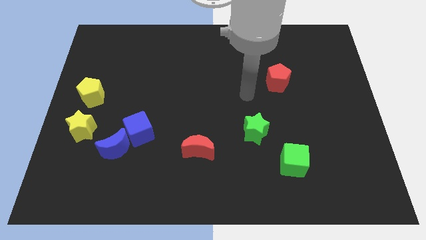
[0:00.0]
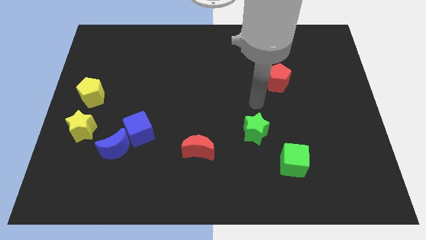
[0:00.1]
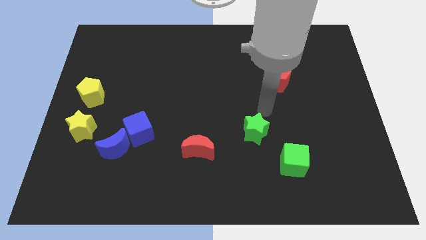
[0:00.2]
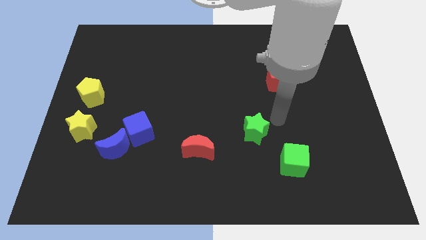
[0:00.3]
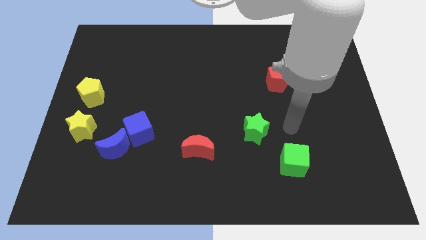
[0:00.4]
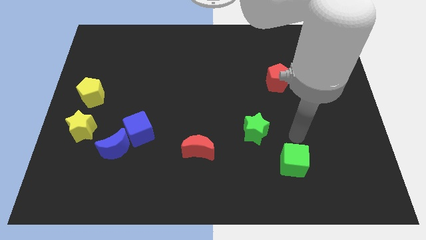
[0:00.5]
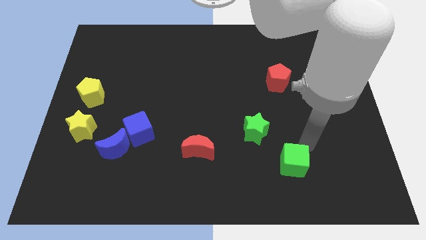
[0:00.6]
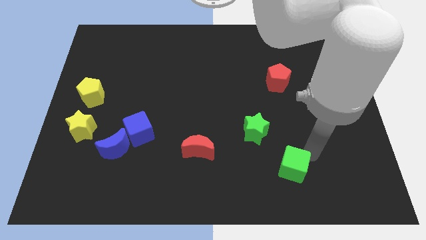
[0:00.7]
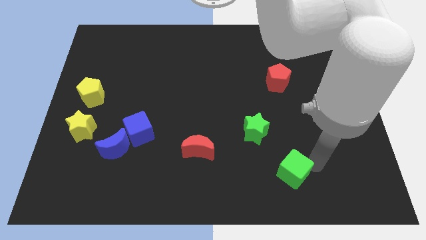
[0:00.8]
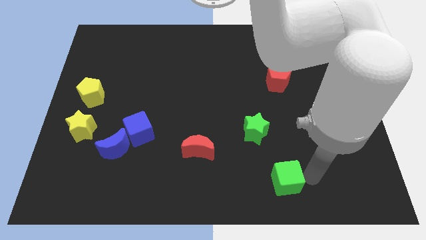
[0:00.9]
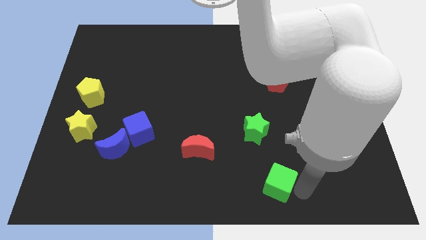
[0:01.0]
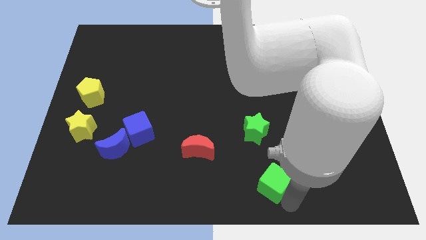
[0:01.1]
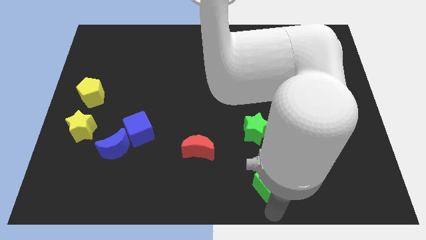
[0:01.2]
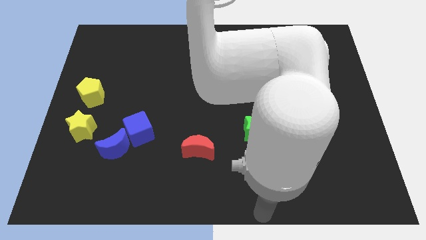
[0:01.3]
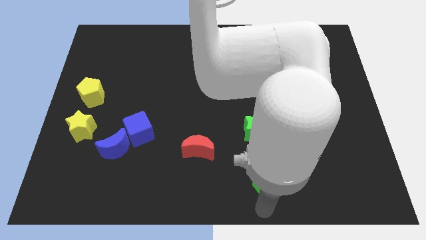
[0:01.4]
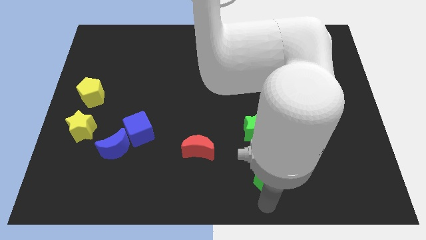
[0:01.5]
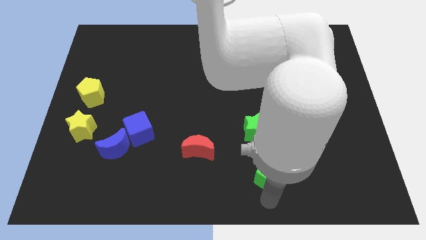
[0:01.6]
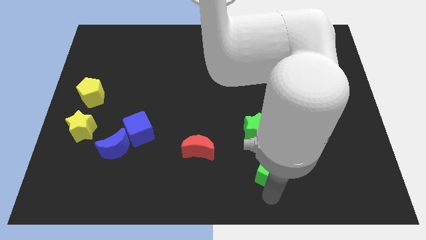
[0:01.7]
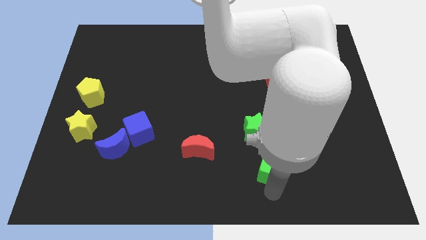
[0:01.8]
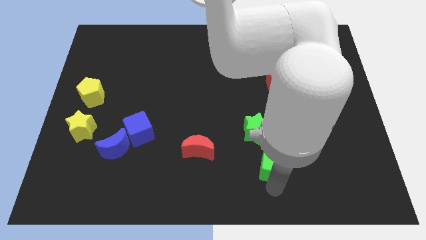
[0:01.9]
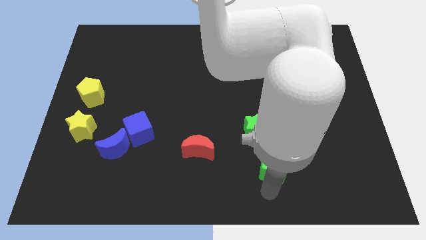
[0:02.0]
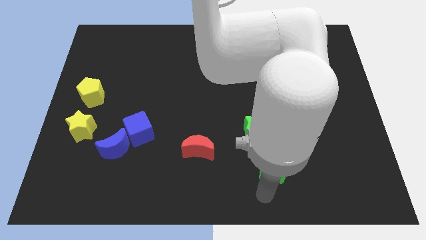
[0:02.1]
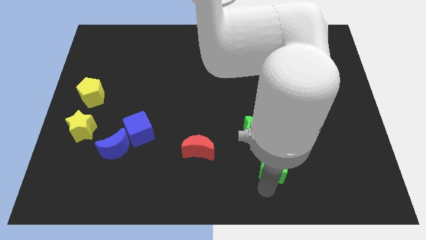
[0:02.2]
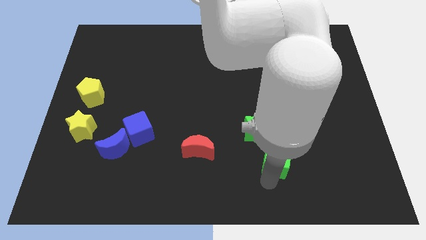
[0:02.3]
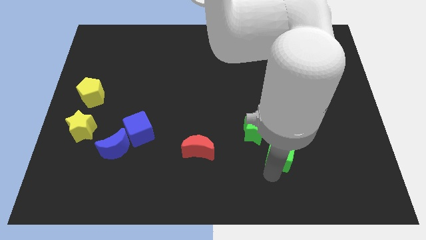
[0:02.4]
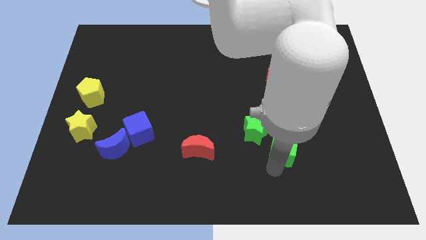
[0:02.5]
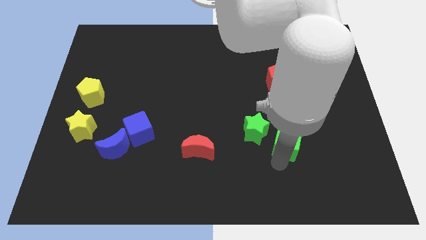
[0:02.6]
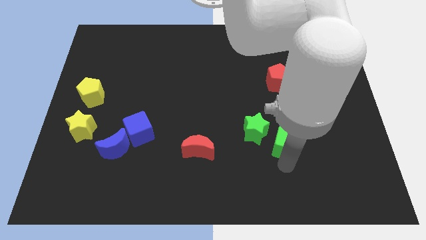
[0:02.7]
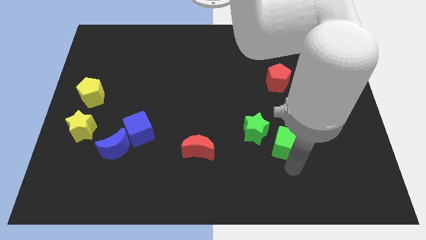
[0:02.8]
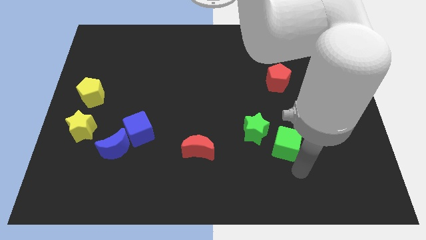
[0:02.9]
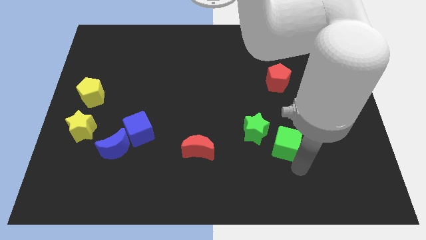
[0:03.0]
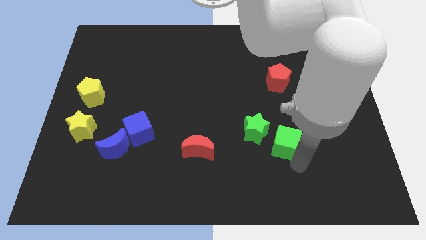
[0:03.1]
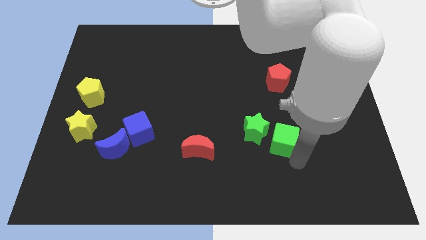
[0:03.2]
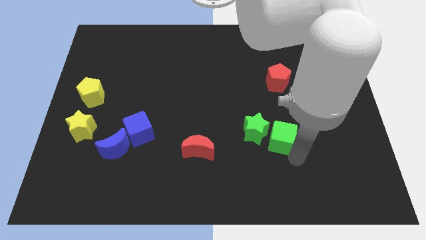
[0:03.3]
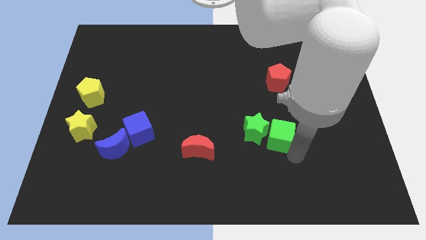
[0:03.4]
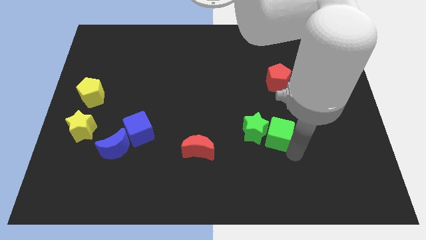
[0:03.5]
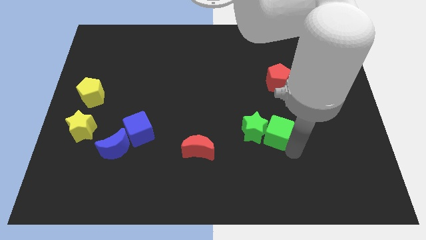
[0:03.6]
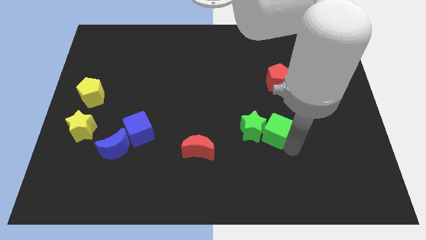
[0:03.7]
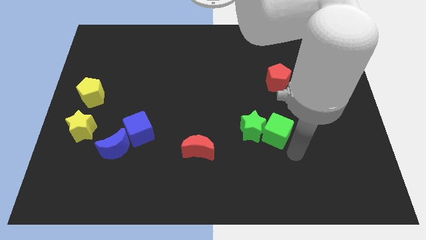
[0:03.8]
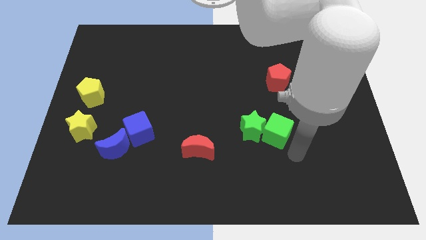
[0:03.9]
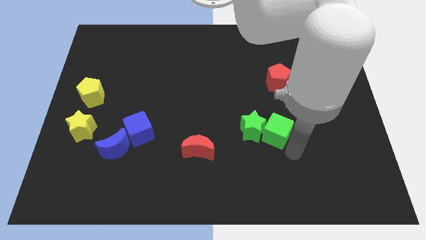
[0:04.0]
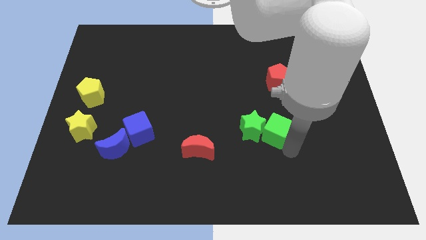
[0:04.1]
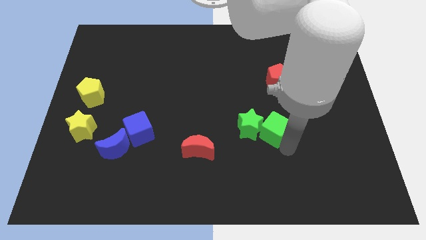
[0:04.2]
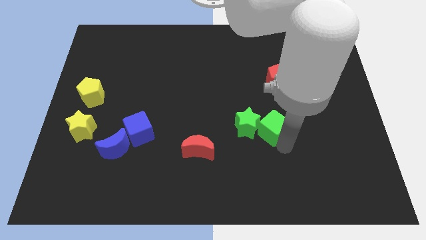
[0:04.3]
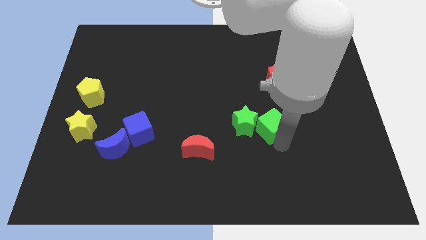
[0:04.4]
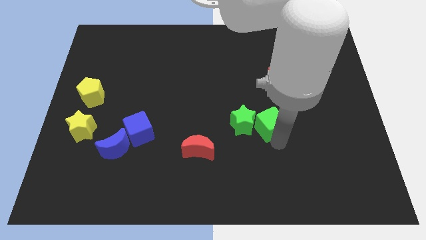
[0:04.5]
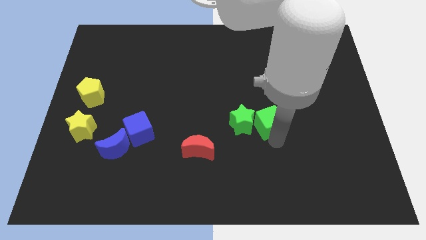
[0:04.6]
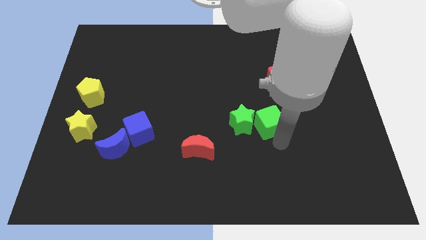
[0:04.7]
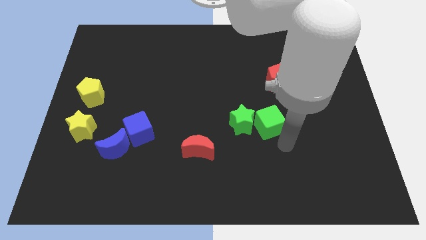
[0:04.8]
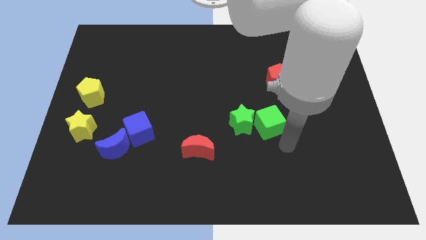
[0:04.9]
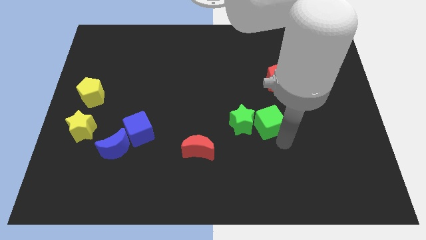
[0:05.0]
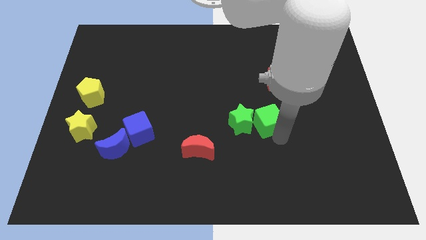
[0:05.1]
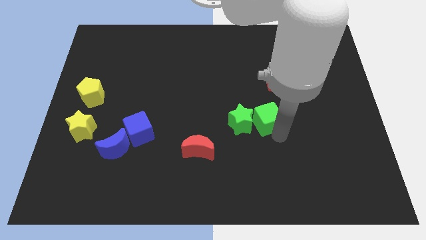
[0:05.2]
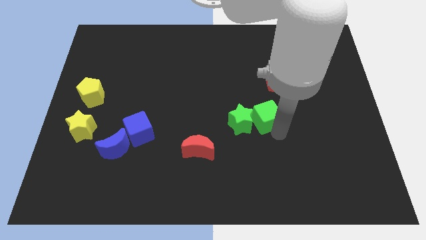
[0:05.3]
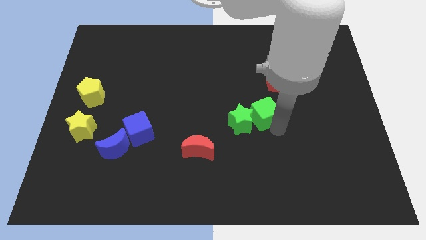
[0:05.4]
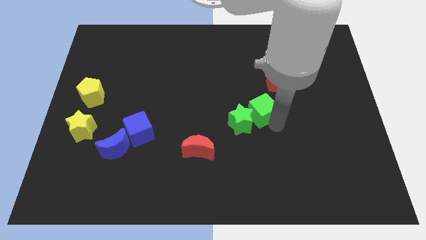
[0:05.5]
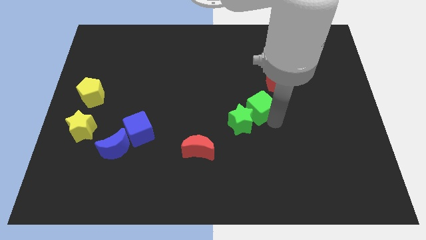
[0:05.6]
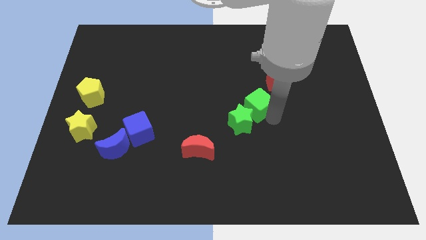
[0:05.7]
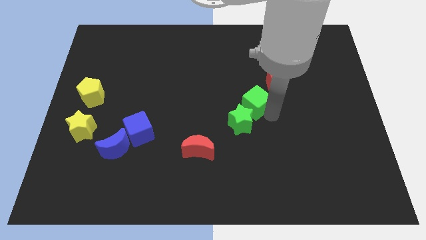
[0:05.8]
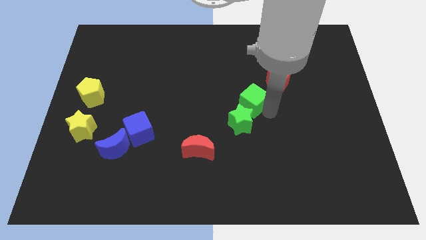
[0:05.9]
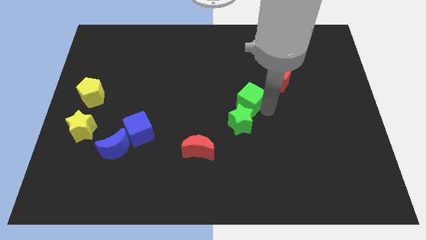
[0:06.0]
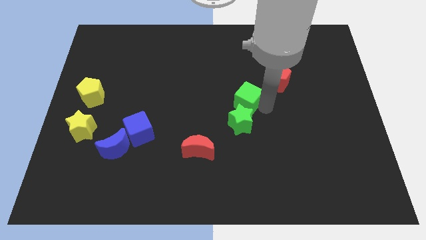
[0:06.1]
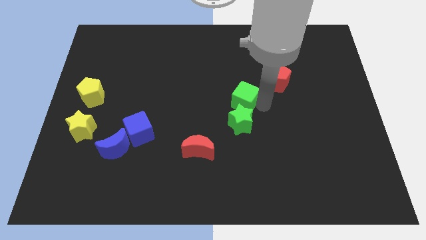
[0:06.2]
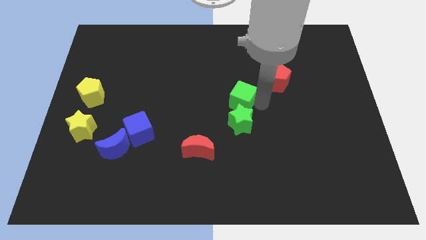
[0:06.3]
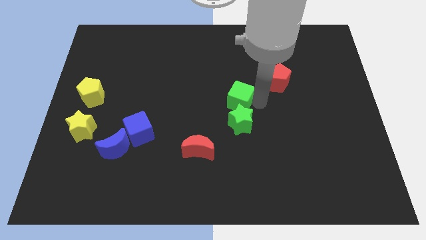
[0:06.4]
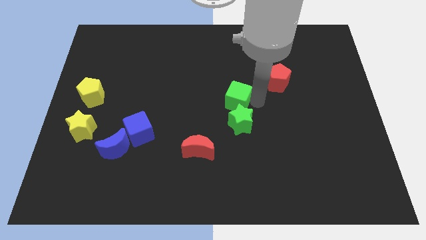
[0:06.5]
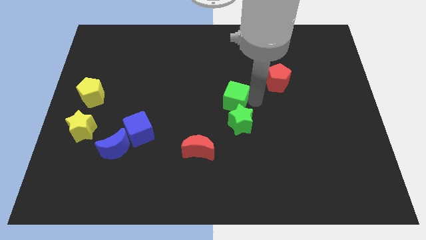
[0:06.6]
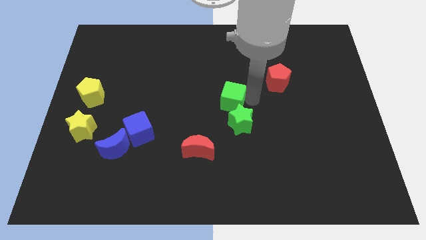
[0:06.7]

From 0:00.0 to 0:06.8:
slide the green cube upwards and then left

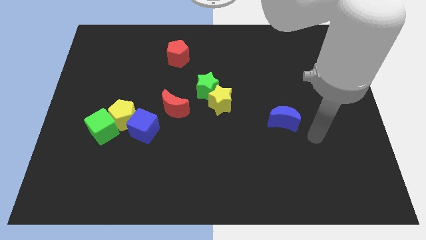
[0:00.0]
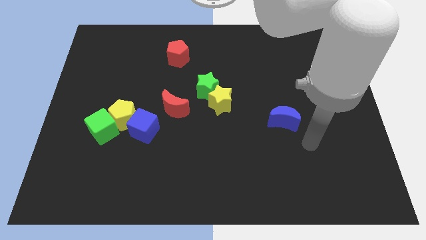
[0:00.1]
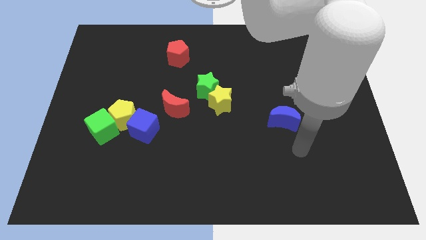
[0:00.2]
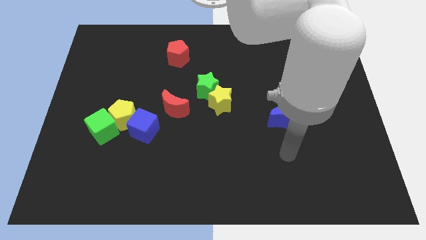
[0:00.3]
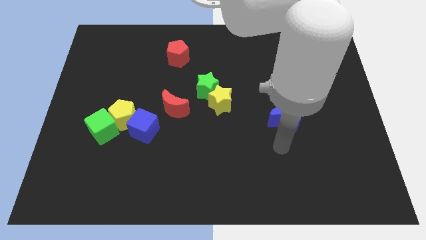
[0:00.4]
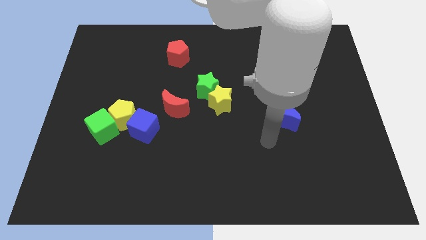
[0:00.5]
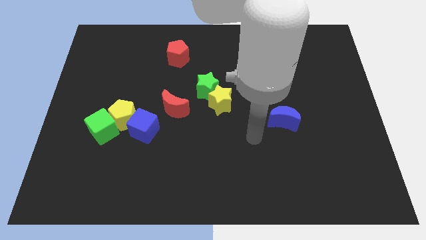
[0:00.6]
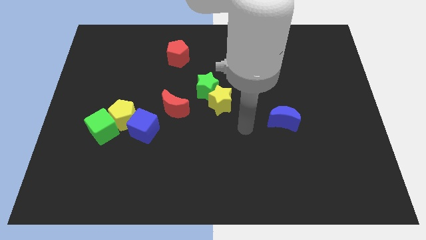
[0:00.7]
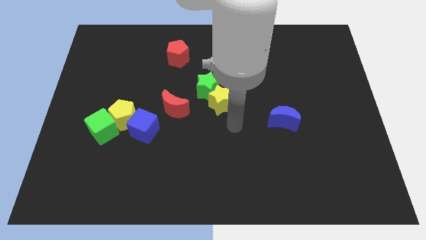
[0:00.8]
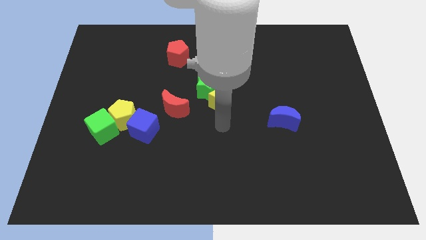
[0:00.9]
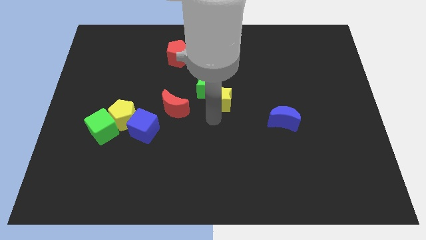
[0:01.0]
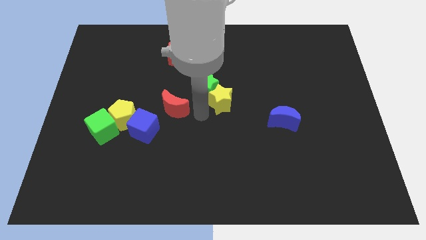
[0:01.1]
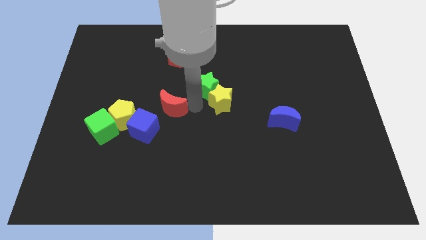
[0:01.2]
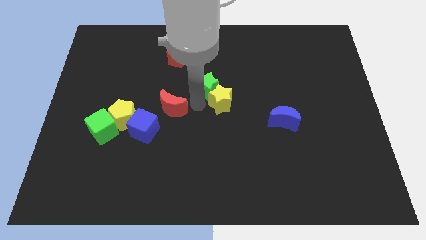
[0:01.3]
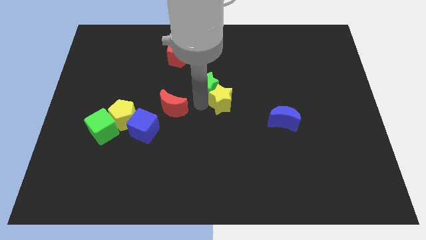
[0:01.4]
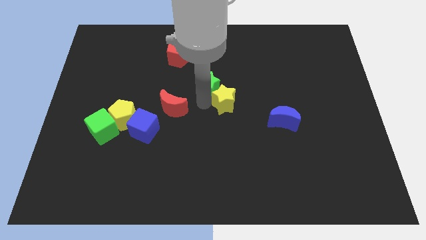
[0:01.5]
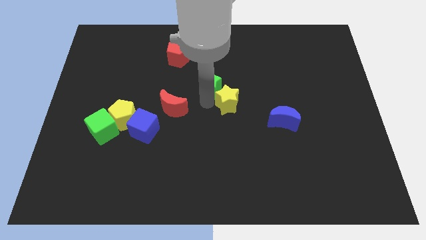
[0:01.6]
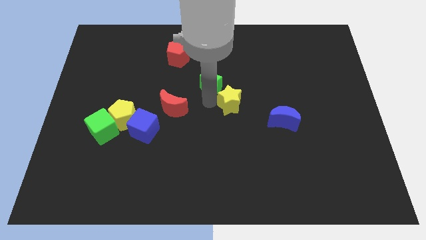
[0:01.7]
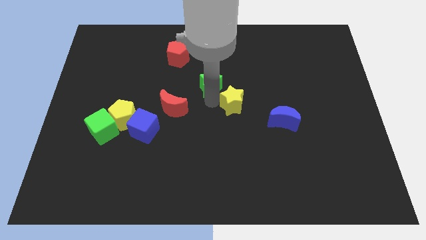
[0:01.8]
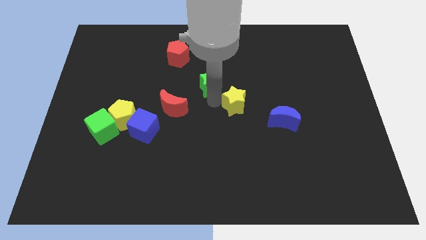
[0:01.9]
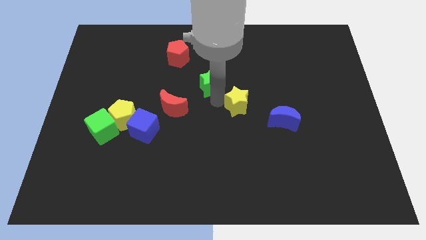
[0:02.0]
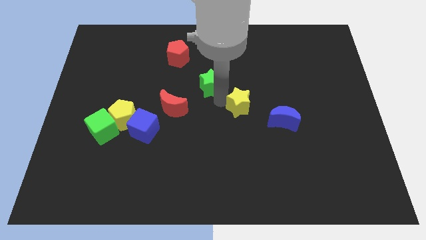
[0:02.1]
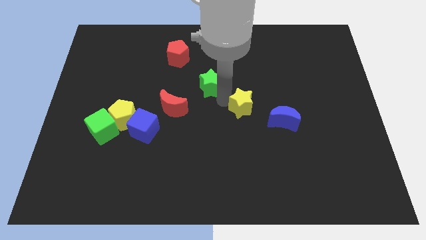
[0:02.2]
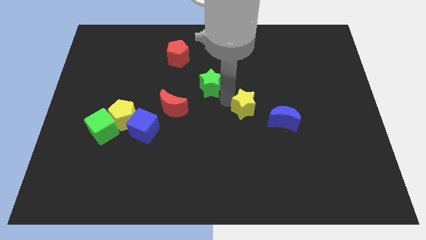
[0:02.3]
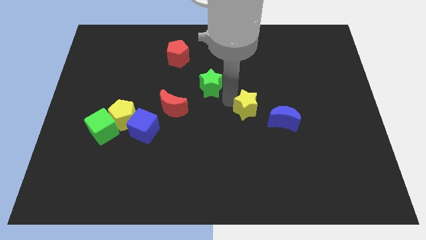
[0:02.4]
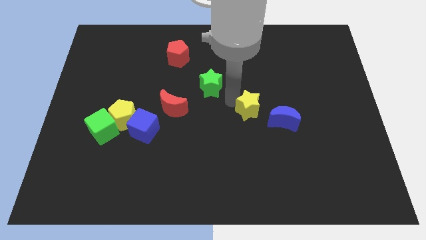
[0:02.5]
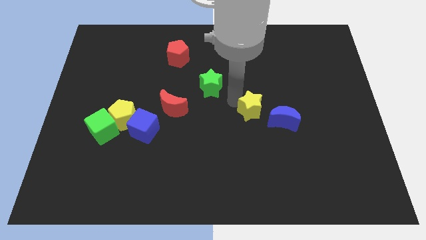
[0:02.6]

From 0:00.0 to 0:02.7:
slightly move the yellow star to the right
